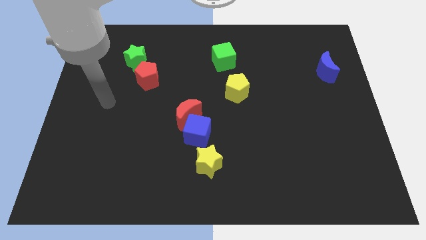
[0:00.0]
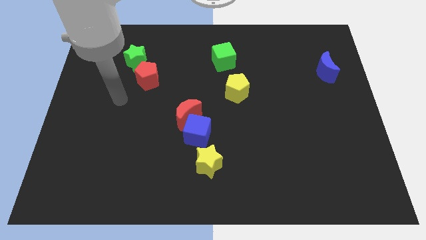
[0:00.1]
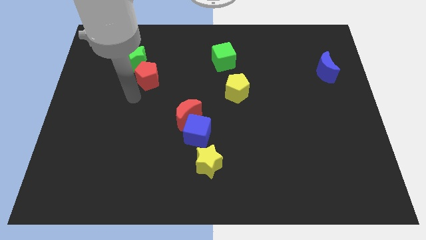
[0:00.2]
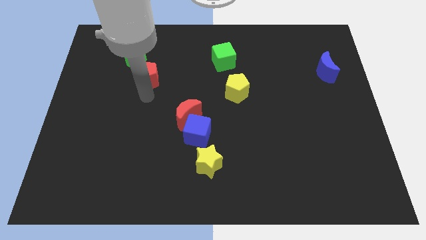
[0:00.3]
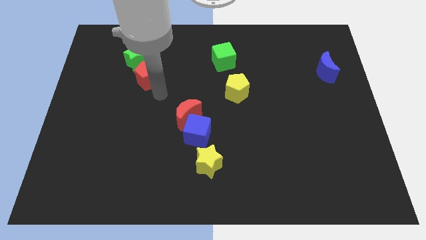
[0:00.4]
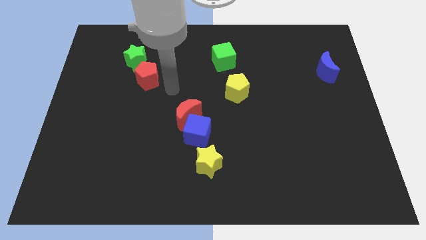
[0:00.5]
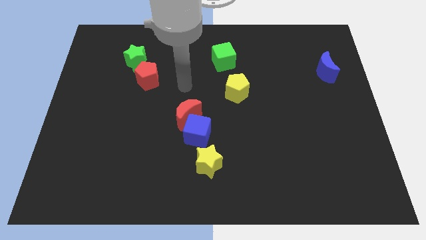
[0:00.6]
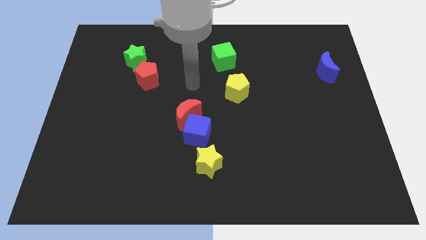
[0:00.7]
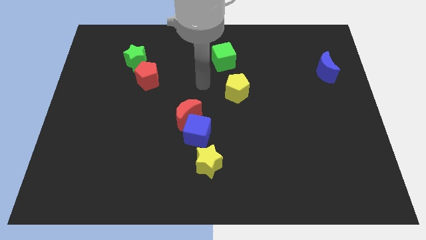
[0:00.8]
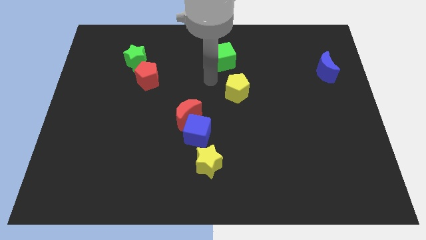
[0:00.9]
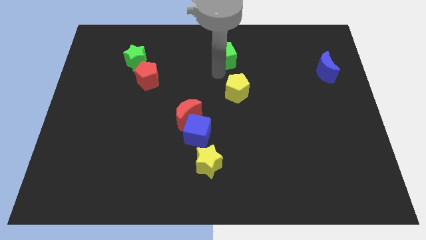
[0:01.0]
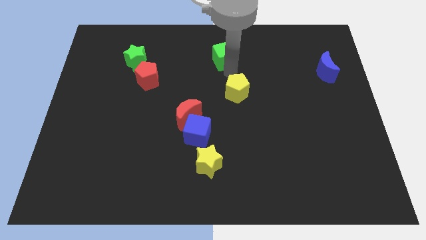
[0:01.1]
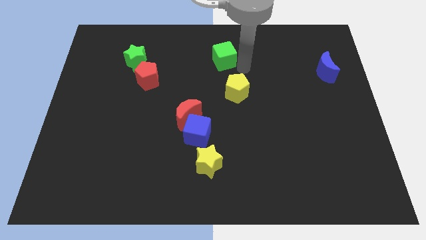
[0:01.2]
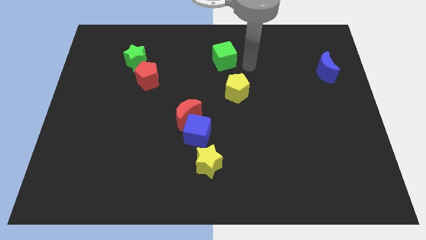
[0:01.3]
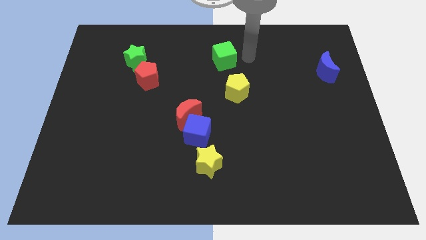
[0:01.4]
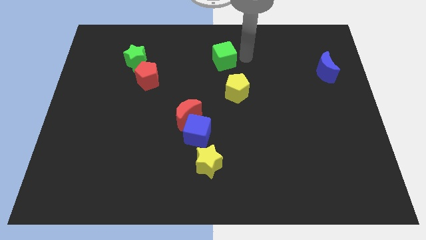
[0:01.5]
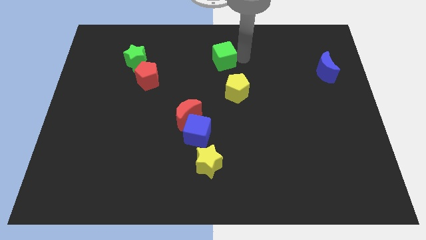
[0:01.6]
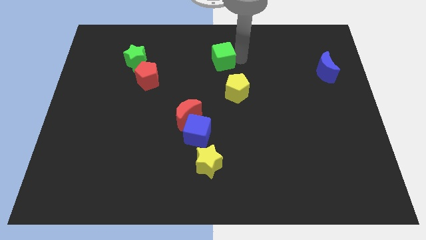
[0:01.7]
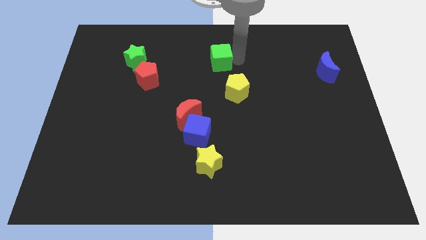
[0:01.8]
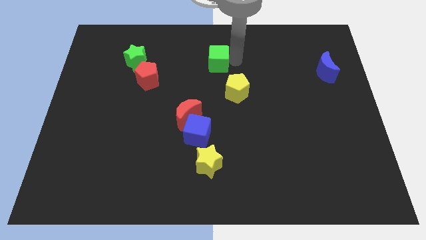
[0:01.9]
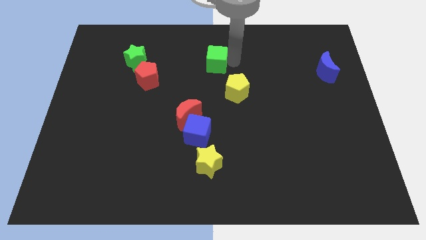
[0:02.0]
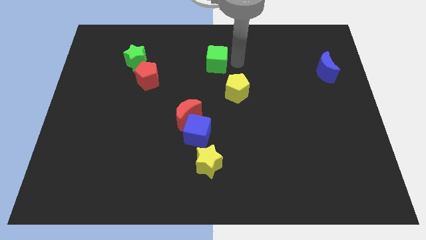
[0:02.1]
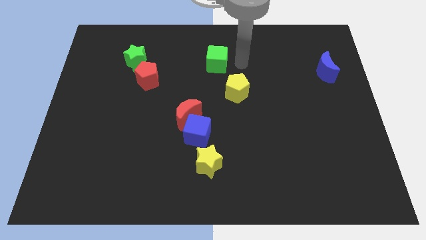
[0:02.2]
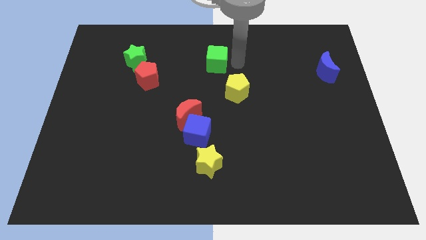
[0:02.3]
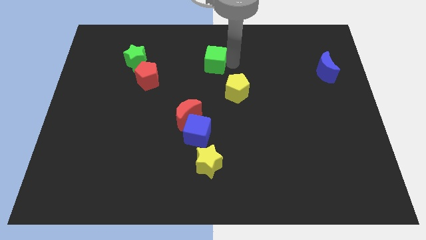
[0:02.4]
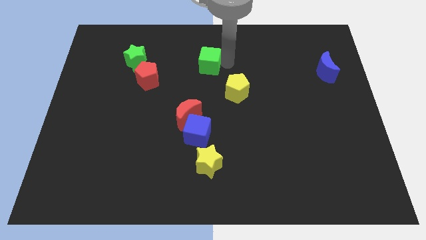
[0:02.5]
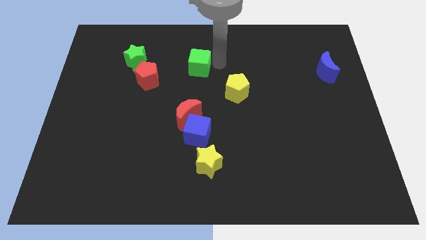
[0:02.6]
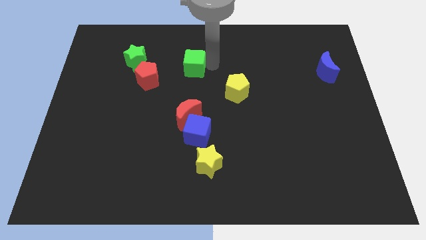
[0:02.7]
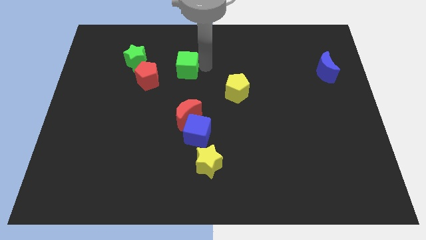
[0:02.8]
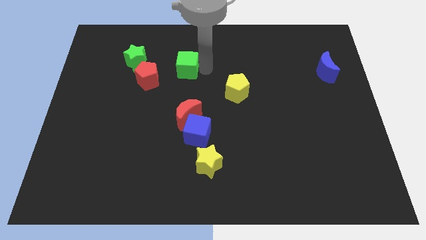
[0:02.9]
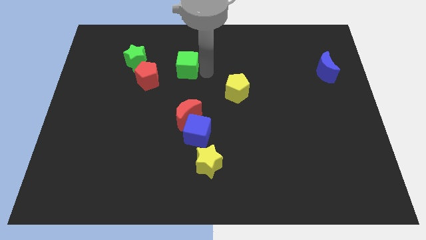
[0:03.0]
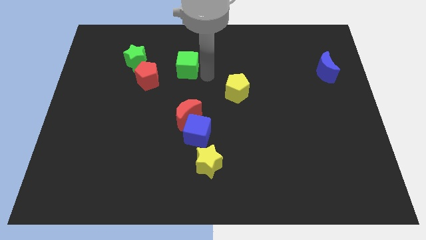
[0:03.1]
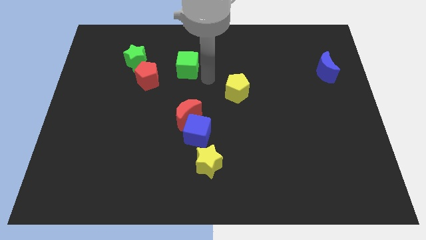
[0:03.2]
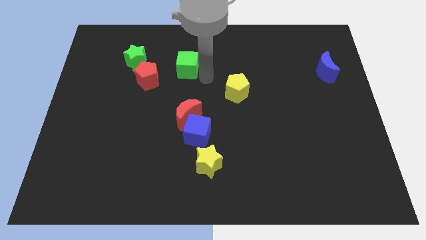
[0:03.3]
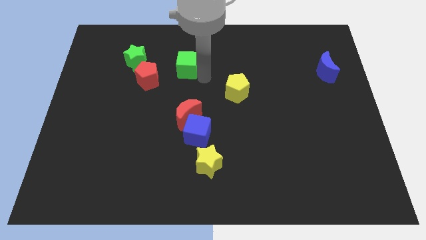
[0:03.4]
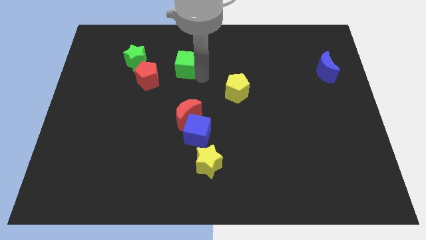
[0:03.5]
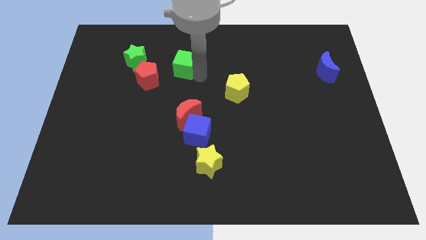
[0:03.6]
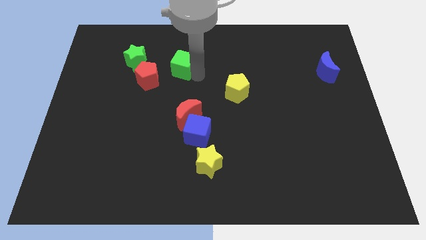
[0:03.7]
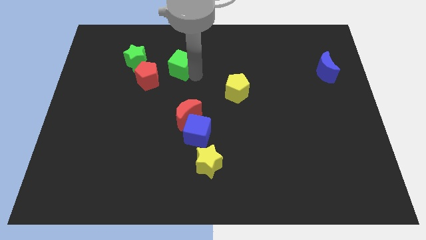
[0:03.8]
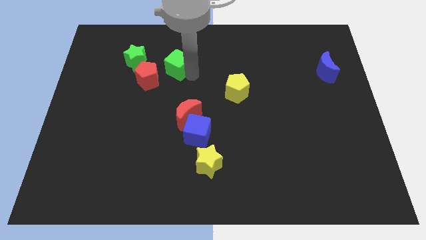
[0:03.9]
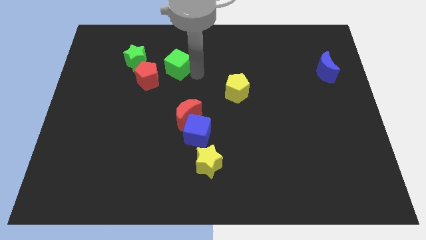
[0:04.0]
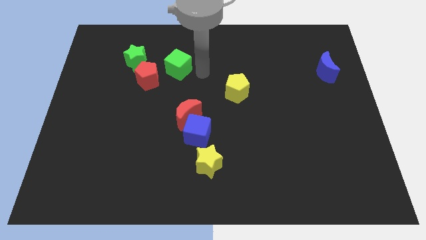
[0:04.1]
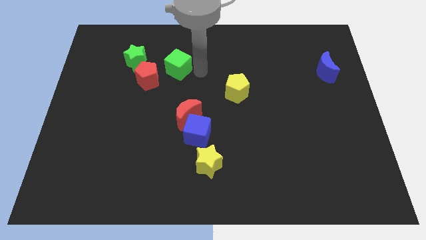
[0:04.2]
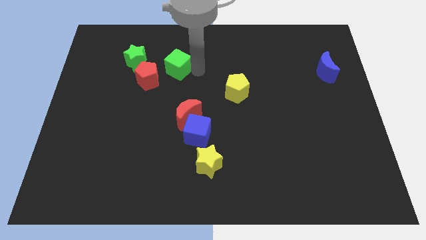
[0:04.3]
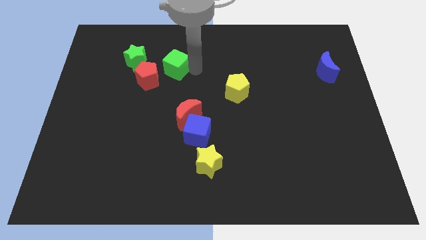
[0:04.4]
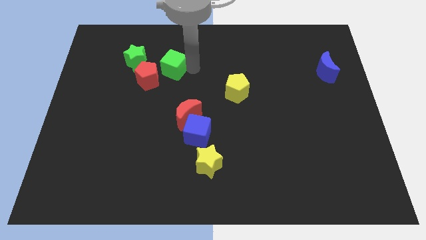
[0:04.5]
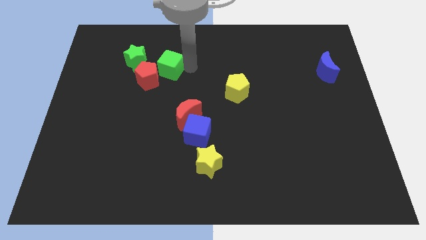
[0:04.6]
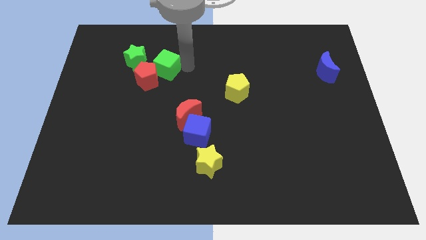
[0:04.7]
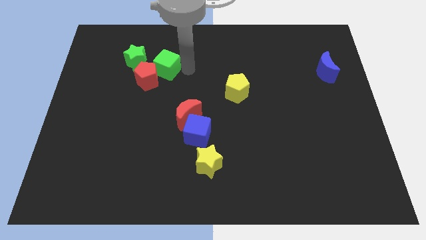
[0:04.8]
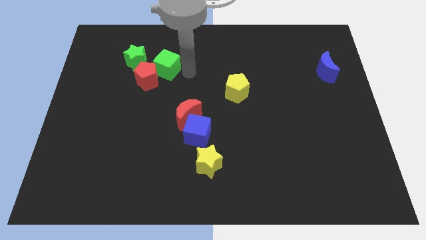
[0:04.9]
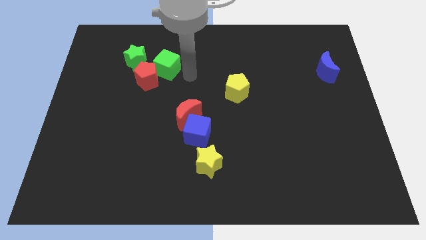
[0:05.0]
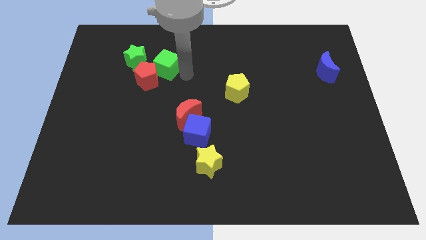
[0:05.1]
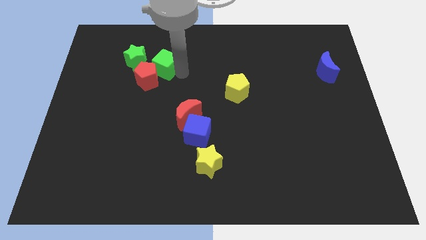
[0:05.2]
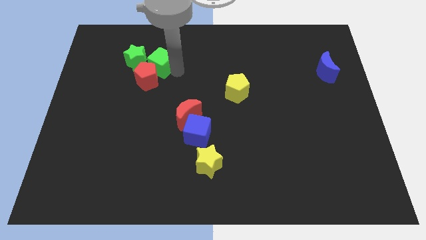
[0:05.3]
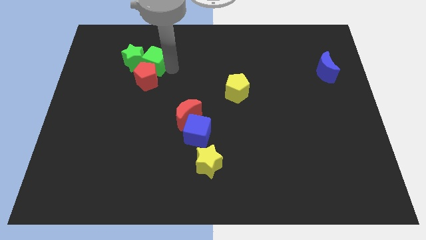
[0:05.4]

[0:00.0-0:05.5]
push the green cube to the green star

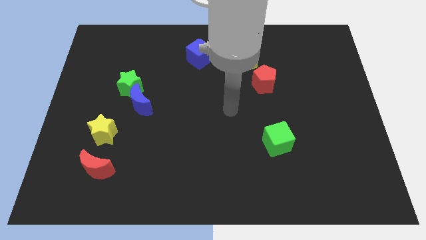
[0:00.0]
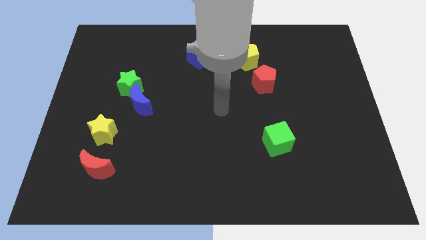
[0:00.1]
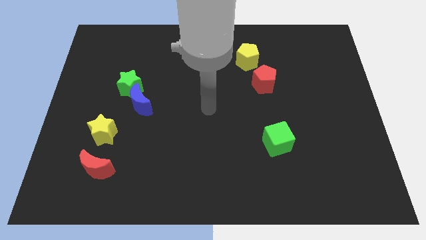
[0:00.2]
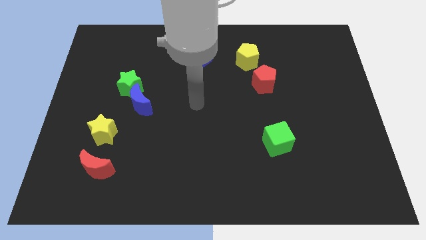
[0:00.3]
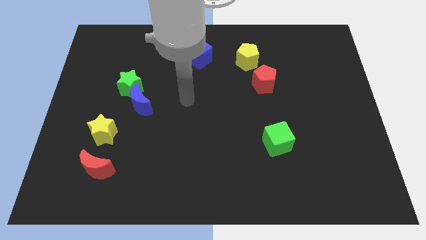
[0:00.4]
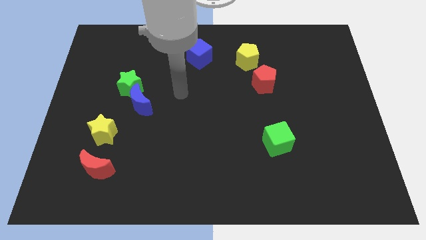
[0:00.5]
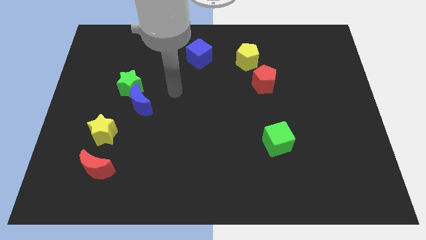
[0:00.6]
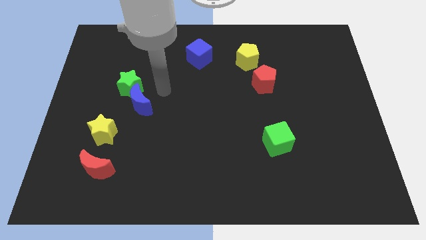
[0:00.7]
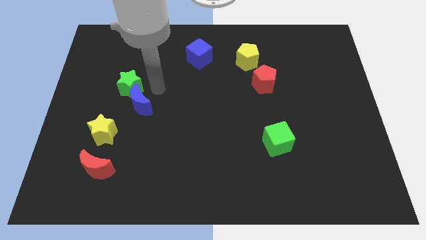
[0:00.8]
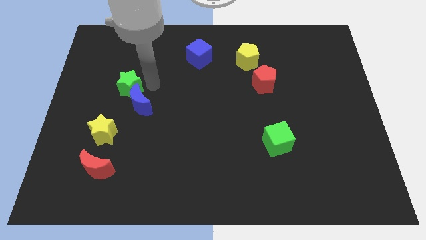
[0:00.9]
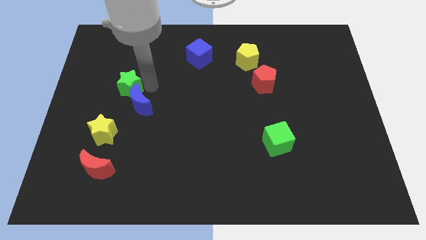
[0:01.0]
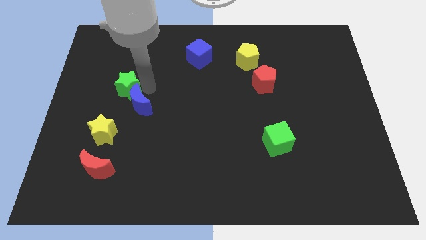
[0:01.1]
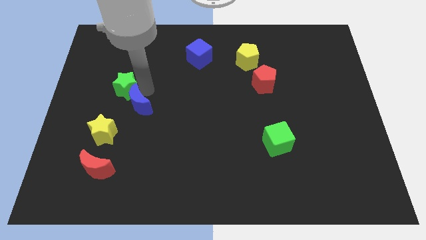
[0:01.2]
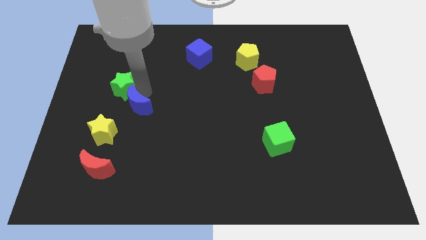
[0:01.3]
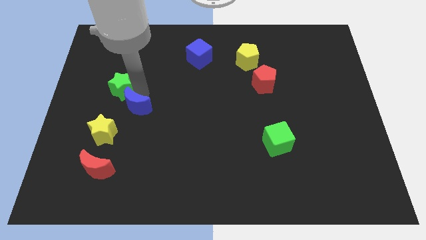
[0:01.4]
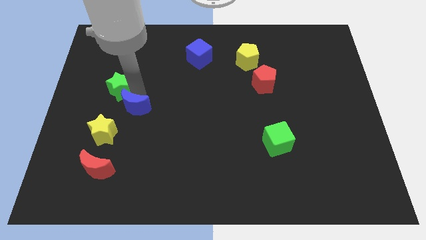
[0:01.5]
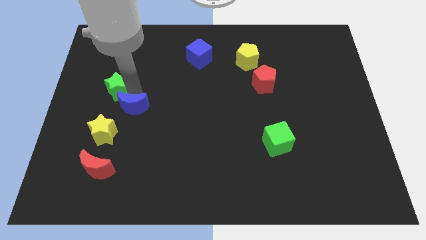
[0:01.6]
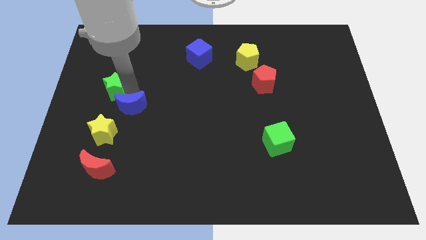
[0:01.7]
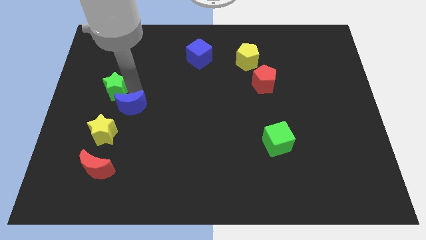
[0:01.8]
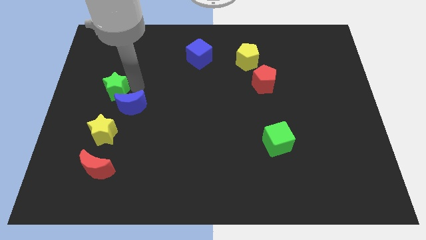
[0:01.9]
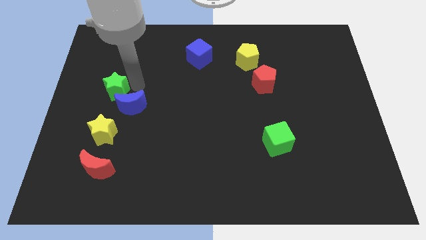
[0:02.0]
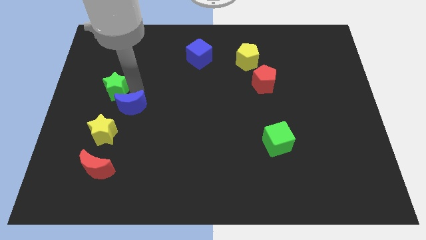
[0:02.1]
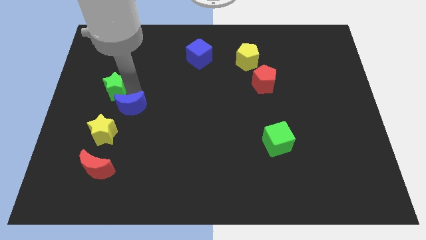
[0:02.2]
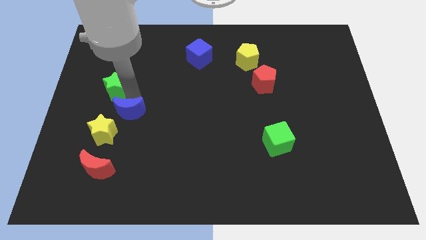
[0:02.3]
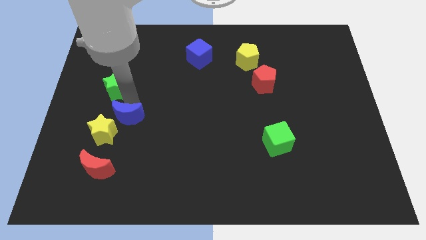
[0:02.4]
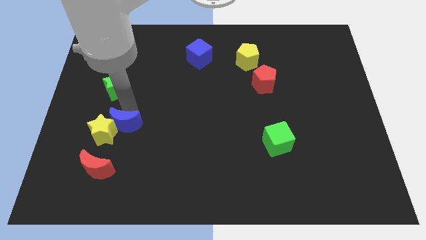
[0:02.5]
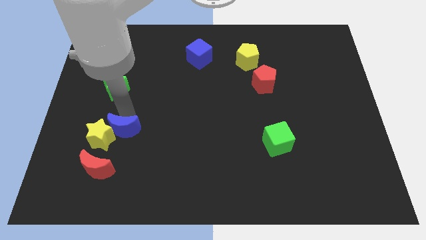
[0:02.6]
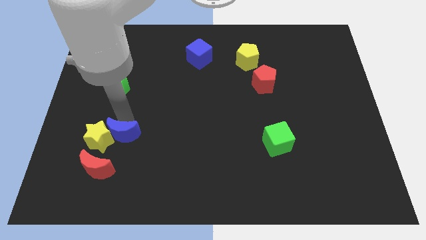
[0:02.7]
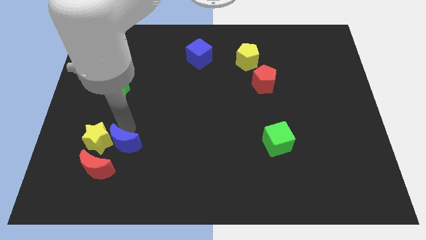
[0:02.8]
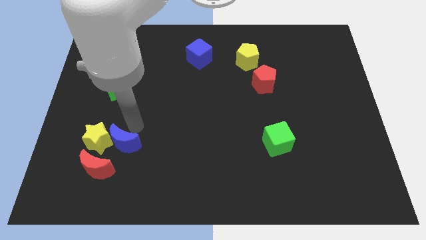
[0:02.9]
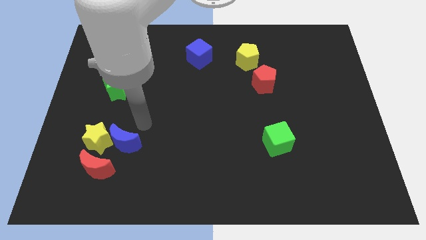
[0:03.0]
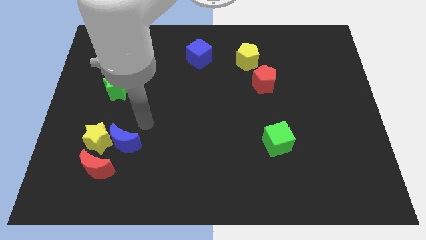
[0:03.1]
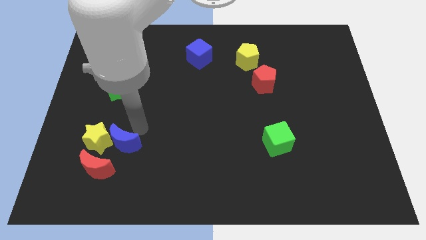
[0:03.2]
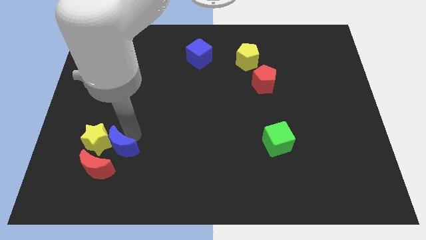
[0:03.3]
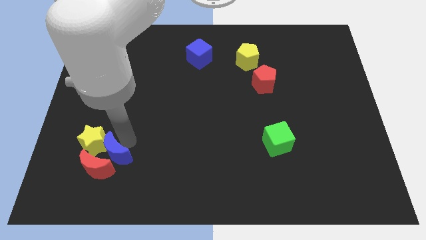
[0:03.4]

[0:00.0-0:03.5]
move the blue moon to the red moon
